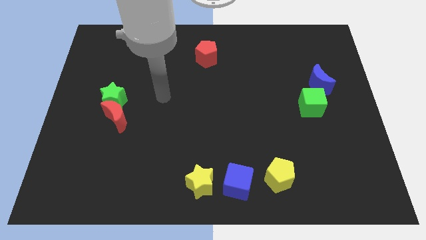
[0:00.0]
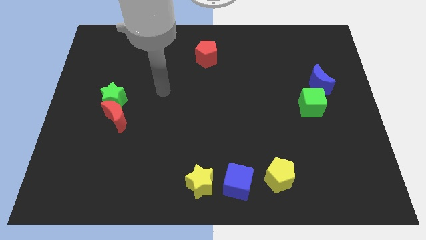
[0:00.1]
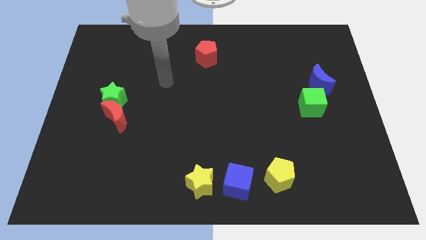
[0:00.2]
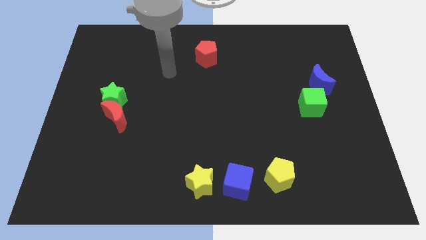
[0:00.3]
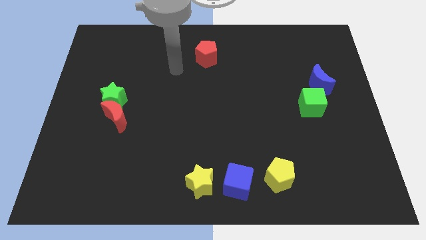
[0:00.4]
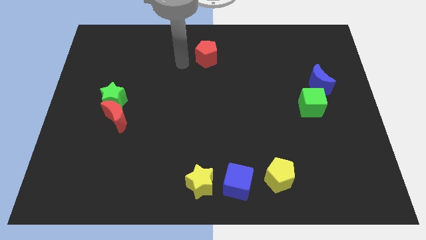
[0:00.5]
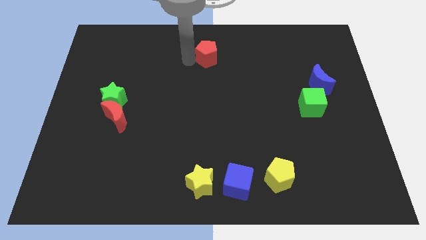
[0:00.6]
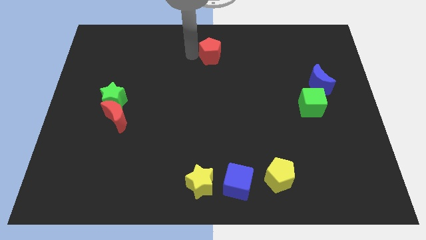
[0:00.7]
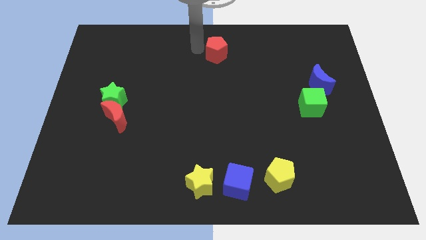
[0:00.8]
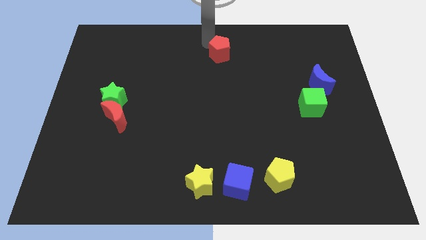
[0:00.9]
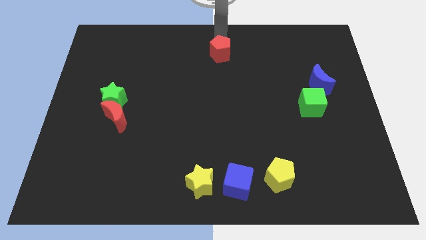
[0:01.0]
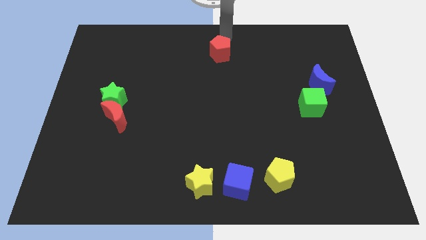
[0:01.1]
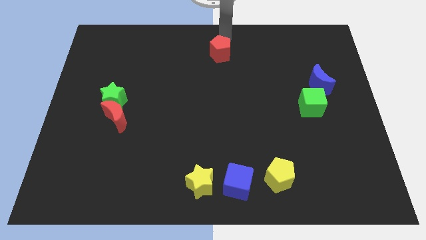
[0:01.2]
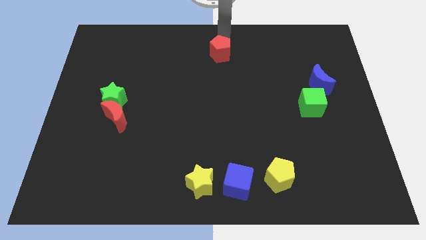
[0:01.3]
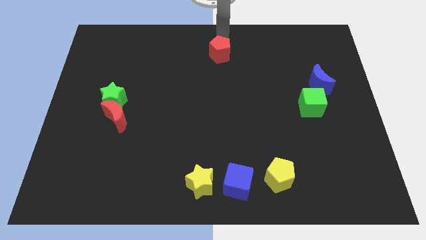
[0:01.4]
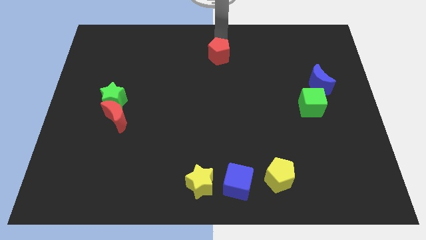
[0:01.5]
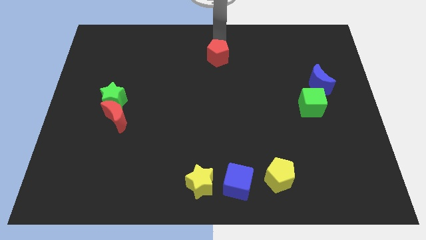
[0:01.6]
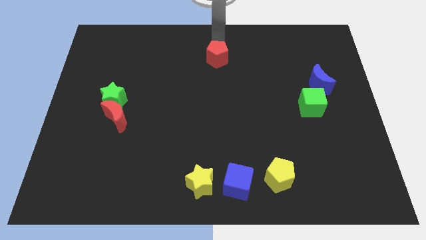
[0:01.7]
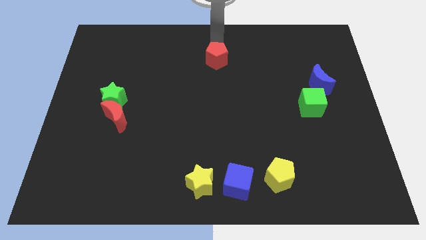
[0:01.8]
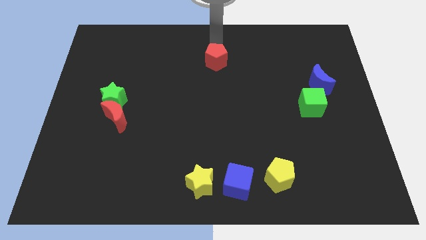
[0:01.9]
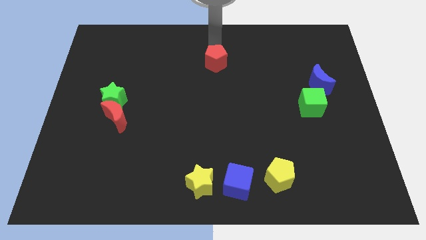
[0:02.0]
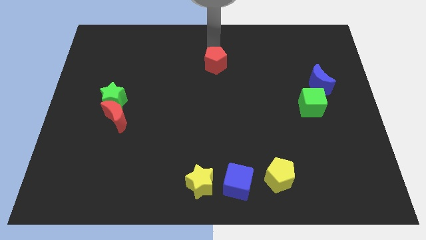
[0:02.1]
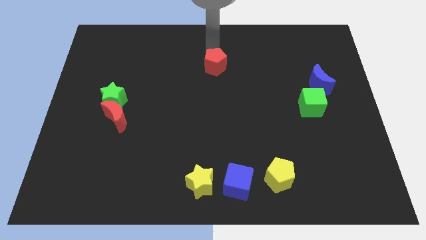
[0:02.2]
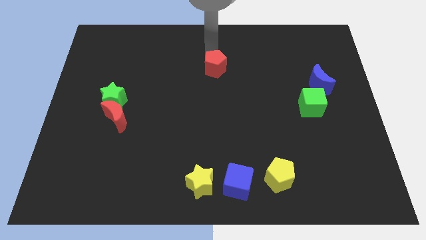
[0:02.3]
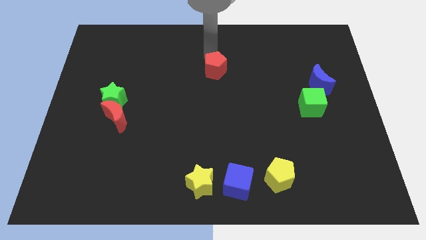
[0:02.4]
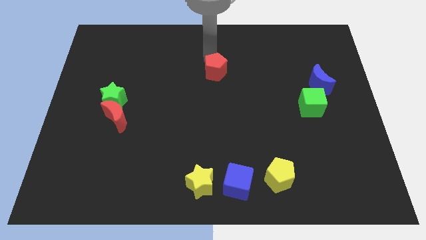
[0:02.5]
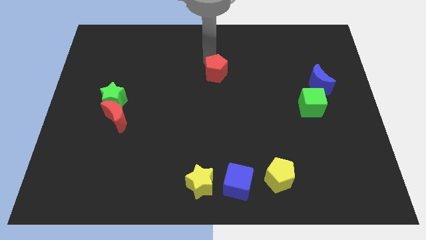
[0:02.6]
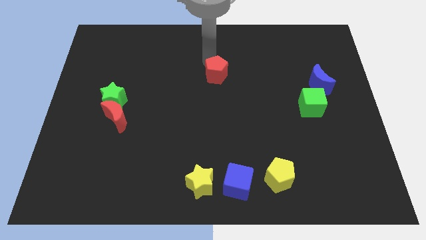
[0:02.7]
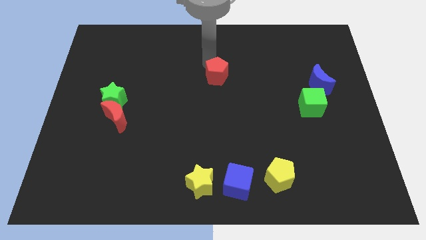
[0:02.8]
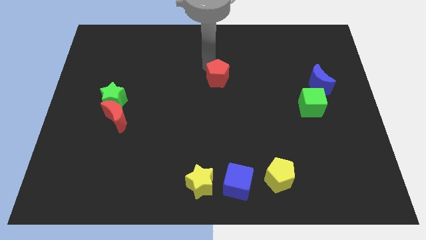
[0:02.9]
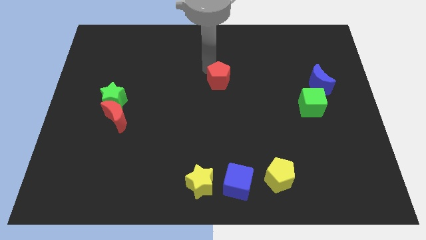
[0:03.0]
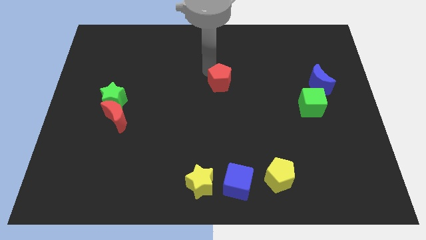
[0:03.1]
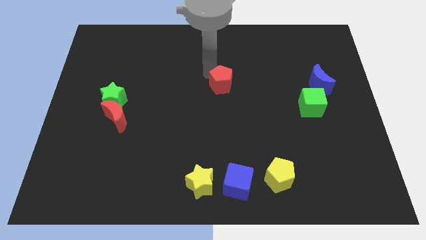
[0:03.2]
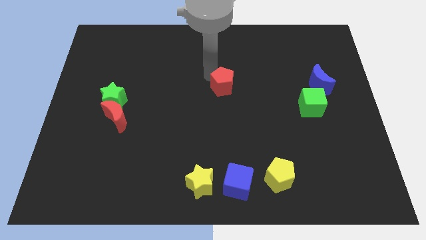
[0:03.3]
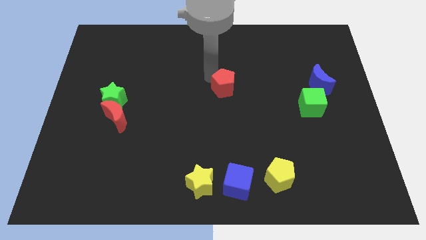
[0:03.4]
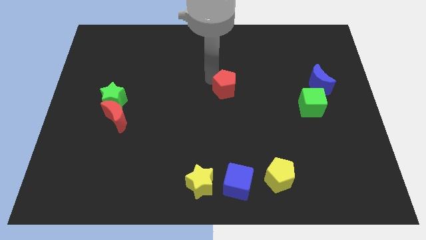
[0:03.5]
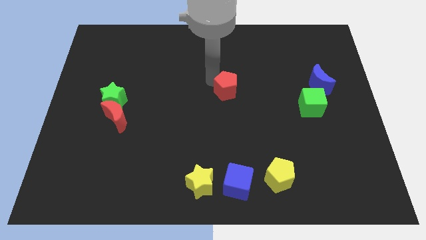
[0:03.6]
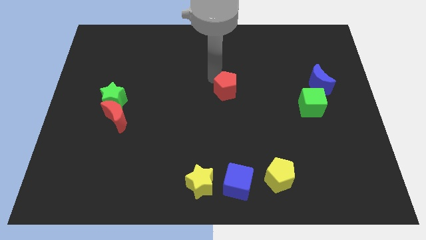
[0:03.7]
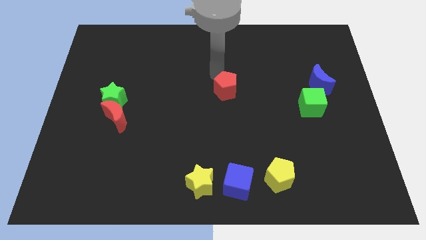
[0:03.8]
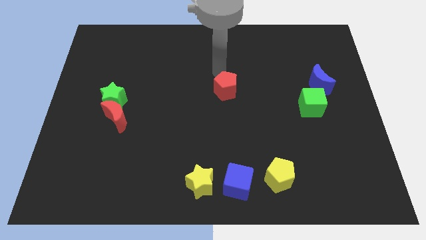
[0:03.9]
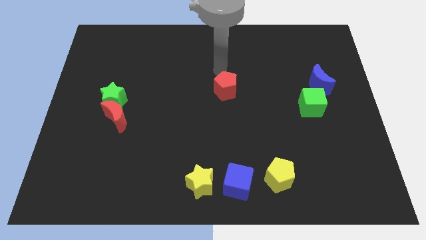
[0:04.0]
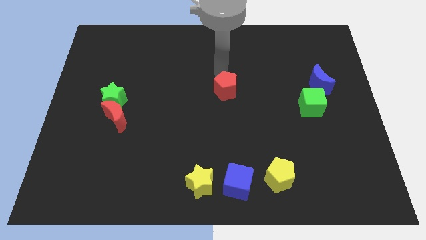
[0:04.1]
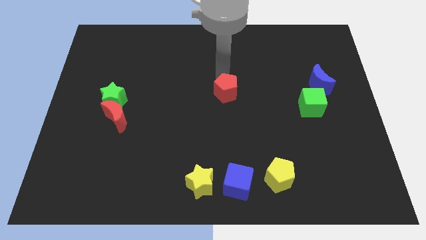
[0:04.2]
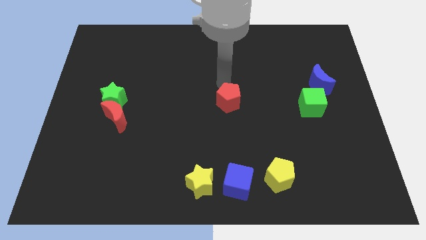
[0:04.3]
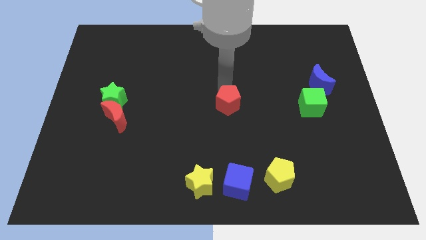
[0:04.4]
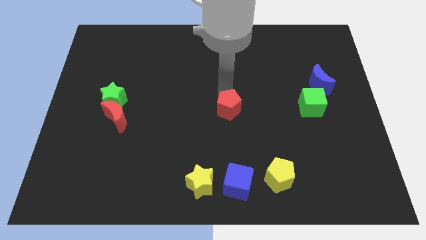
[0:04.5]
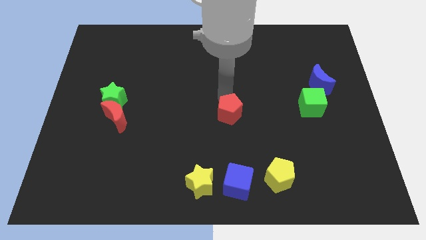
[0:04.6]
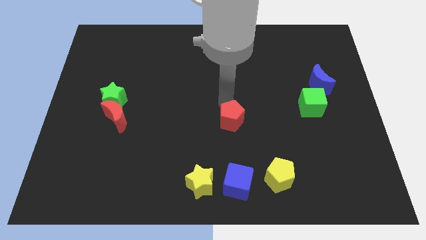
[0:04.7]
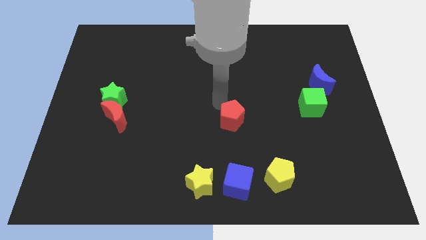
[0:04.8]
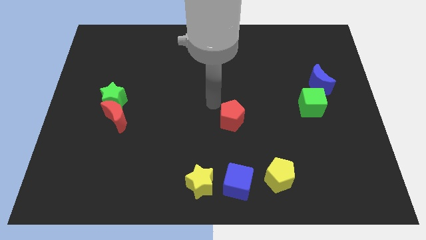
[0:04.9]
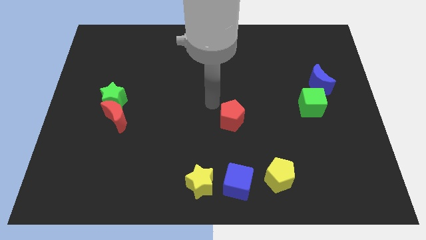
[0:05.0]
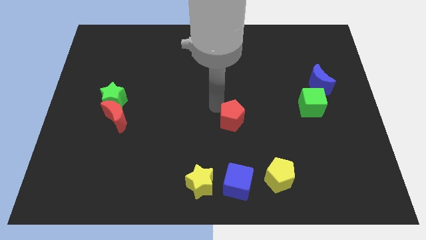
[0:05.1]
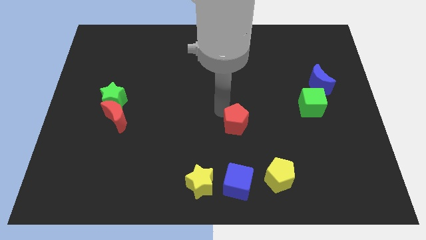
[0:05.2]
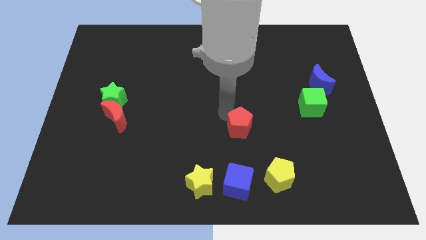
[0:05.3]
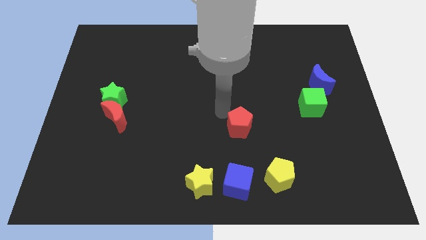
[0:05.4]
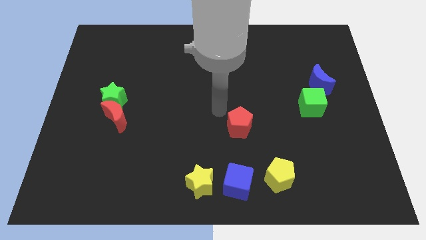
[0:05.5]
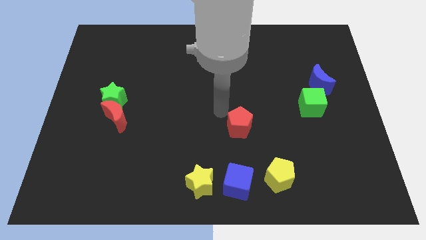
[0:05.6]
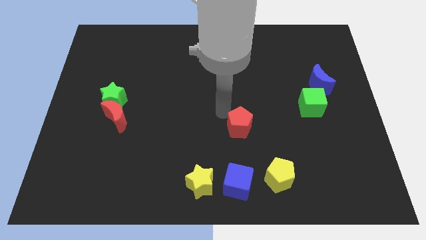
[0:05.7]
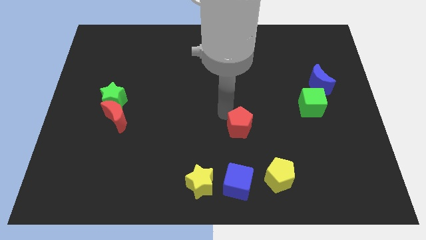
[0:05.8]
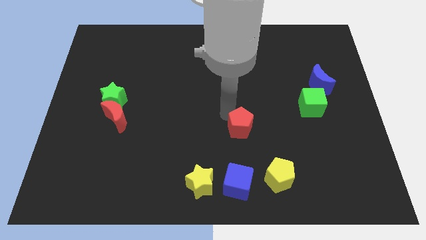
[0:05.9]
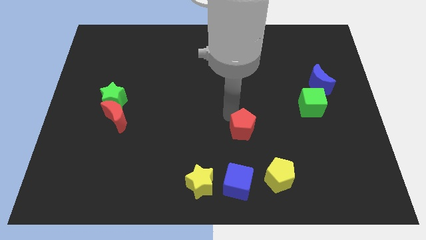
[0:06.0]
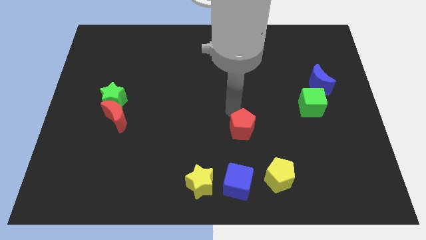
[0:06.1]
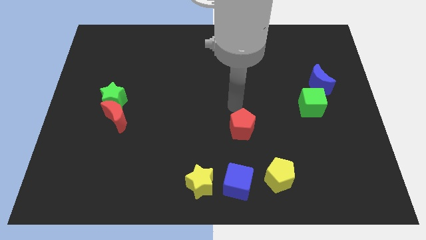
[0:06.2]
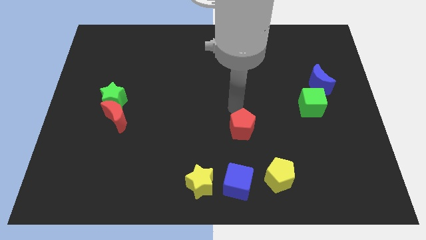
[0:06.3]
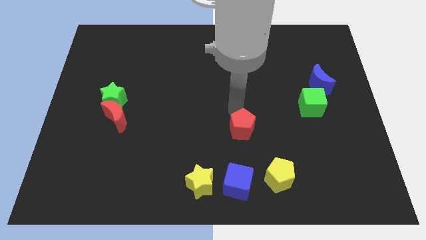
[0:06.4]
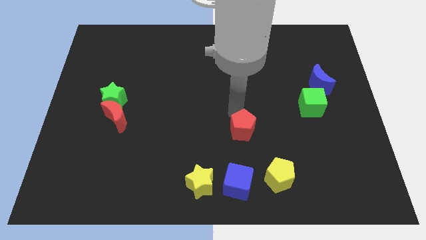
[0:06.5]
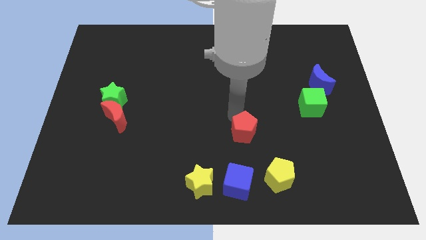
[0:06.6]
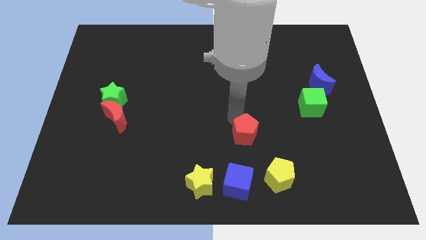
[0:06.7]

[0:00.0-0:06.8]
slide the red pentagon diagonally up and to the left of the yellow pentagon

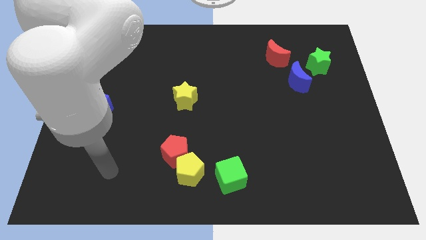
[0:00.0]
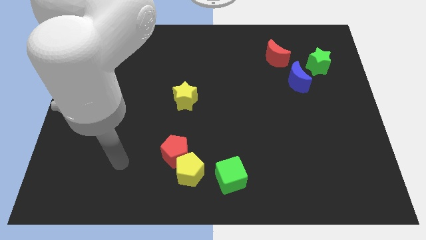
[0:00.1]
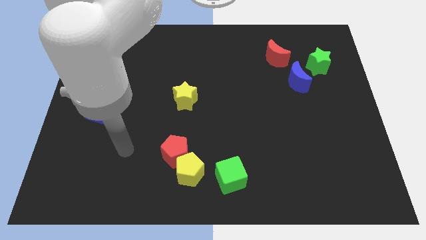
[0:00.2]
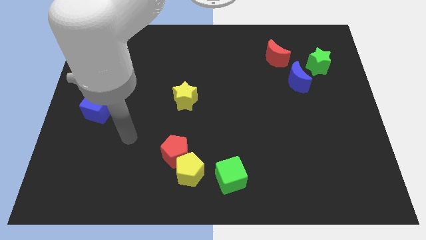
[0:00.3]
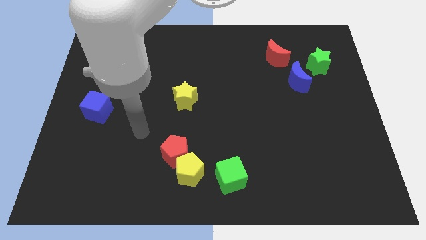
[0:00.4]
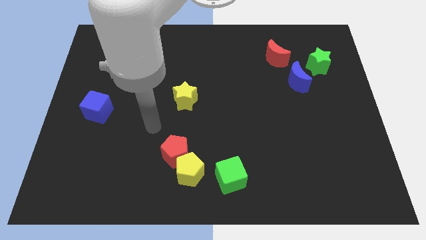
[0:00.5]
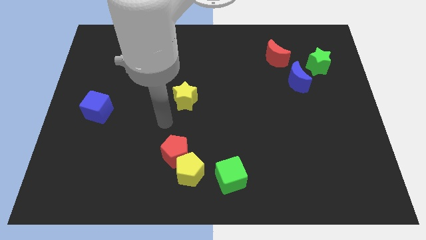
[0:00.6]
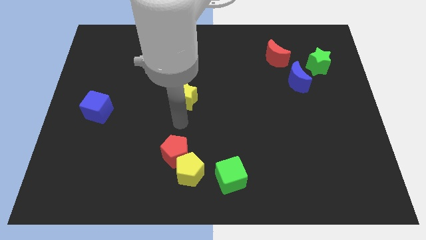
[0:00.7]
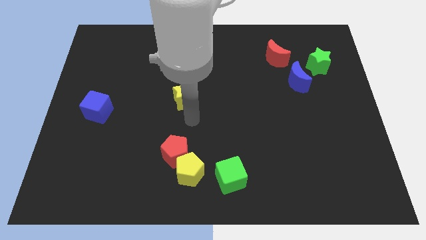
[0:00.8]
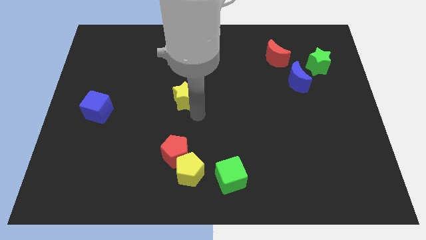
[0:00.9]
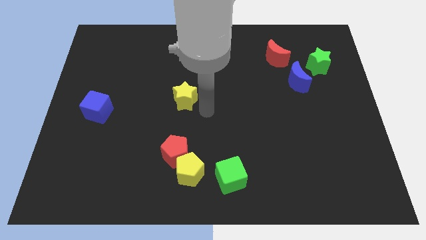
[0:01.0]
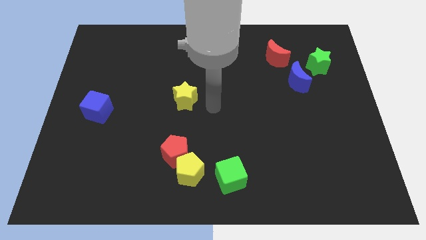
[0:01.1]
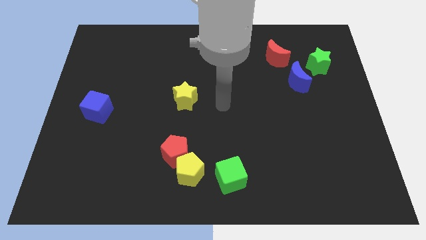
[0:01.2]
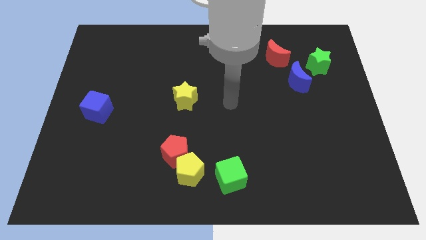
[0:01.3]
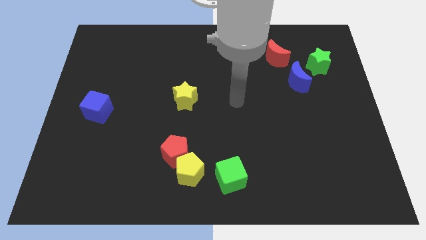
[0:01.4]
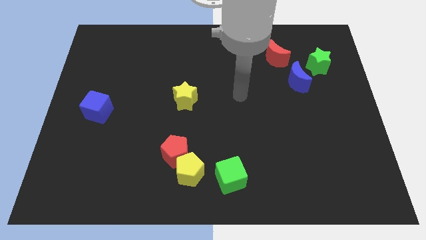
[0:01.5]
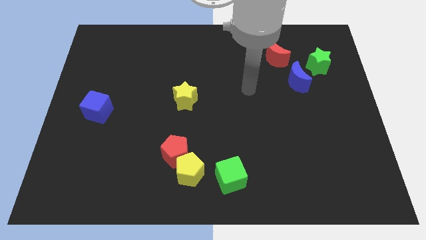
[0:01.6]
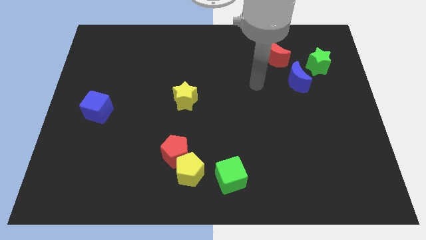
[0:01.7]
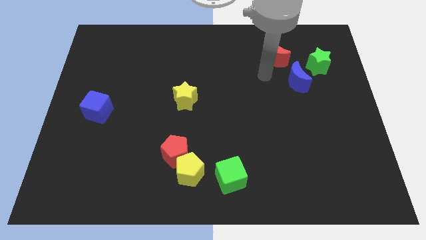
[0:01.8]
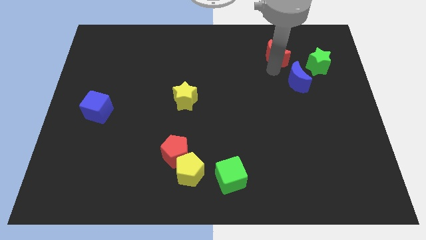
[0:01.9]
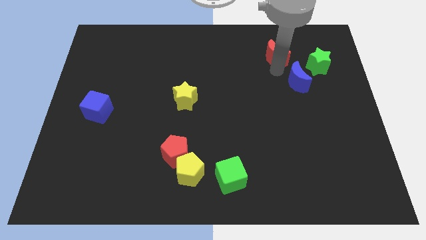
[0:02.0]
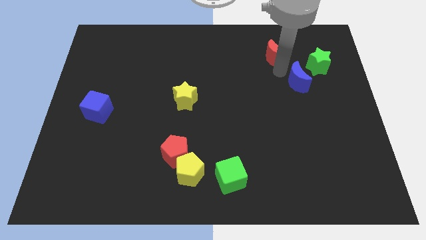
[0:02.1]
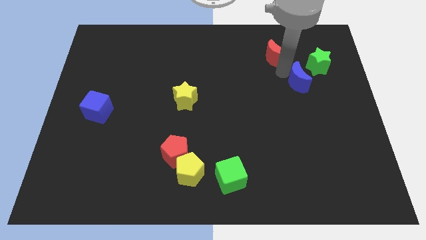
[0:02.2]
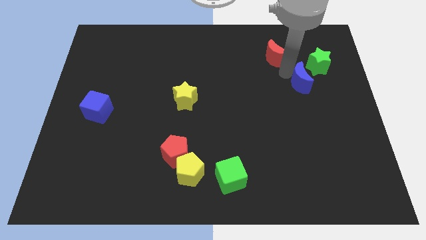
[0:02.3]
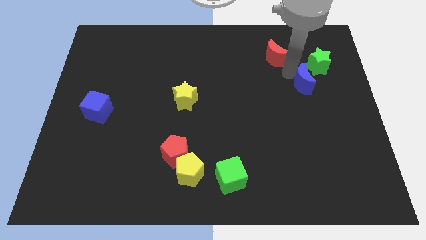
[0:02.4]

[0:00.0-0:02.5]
move the blue moon to the bottom side of the green star
